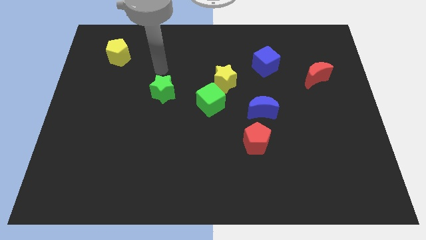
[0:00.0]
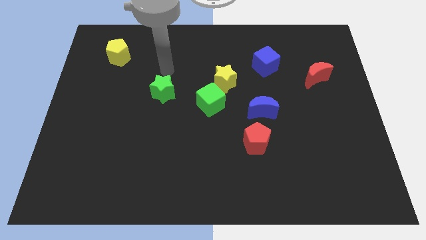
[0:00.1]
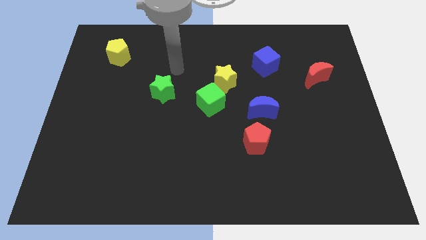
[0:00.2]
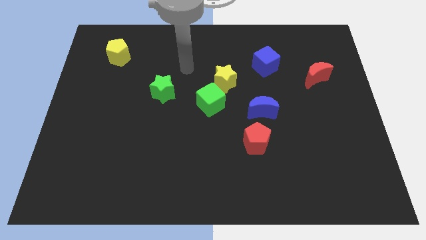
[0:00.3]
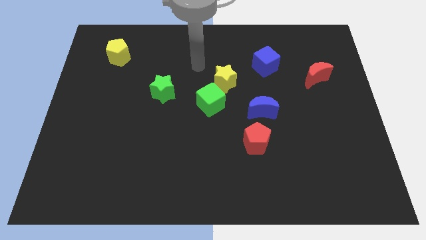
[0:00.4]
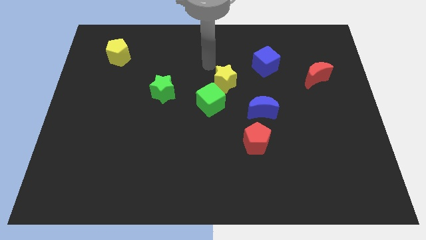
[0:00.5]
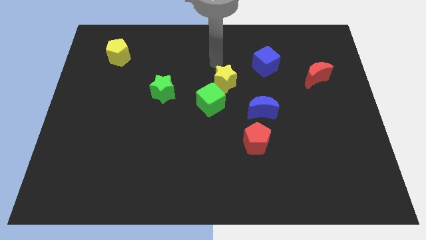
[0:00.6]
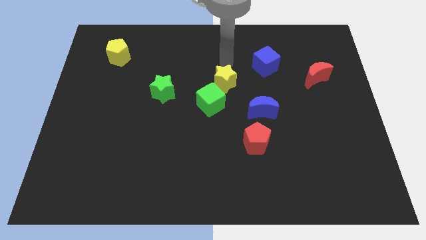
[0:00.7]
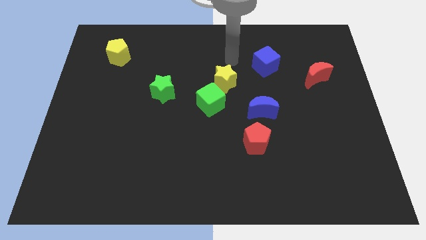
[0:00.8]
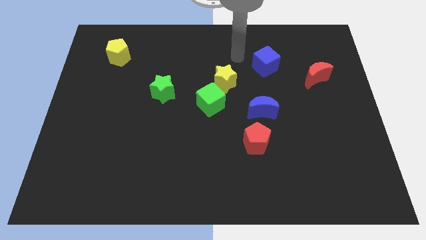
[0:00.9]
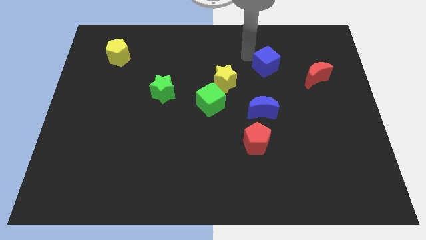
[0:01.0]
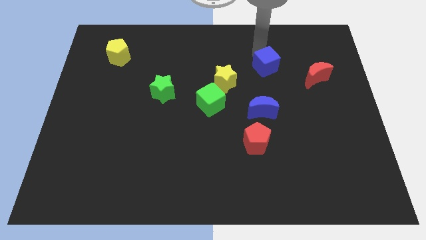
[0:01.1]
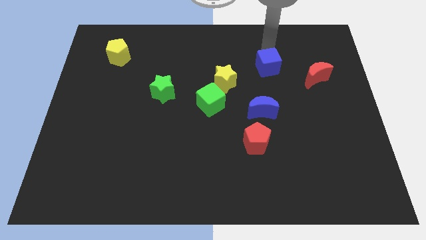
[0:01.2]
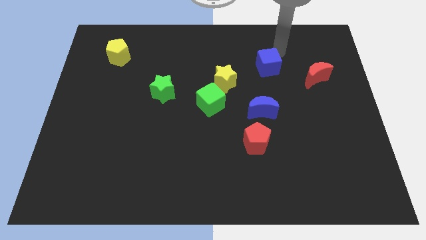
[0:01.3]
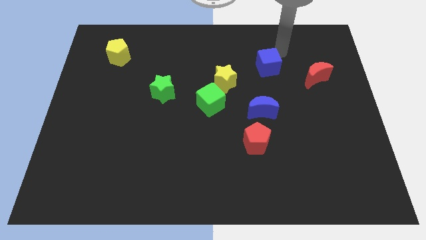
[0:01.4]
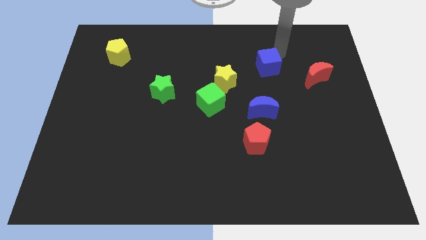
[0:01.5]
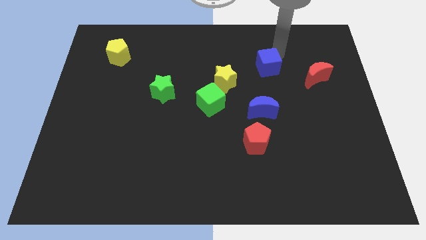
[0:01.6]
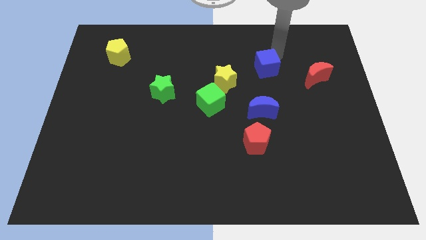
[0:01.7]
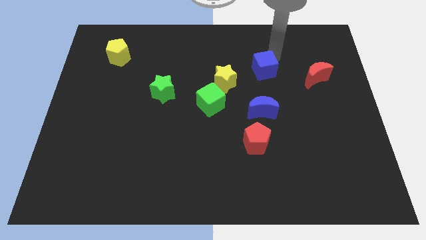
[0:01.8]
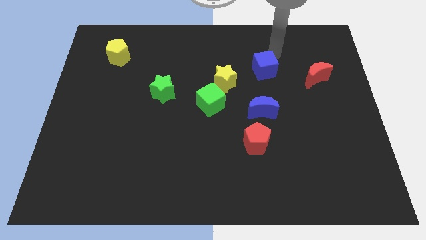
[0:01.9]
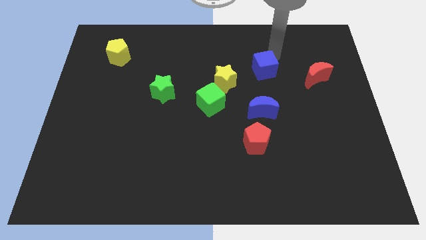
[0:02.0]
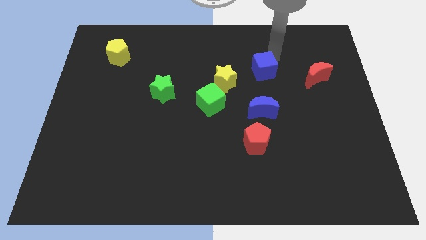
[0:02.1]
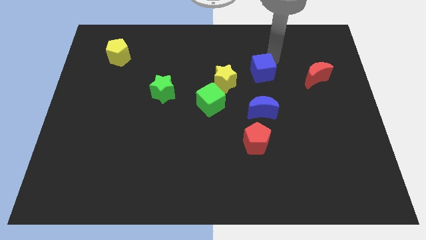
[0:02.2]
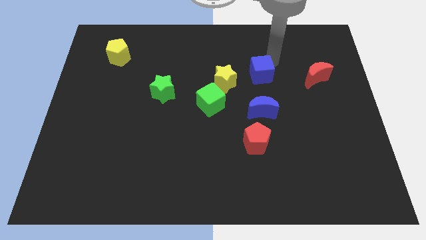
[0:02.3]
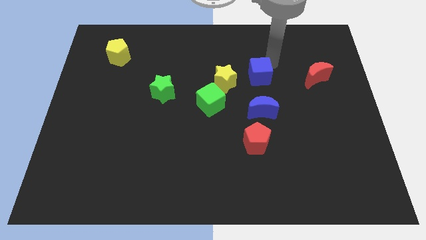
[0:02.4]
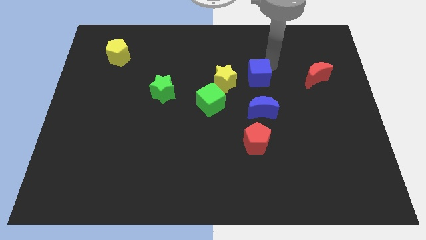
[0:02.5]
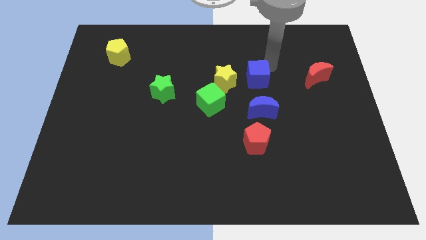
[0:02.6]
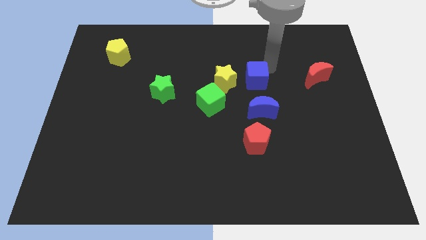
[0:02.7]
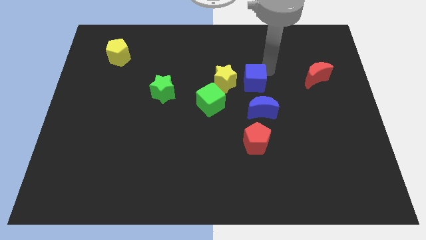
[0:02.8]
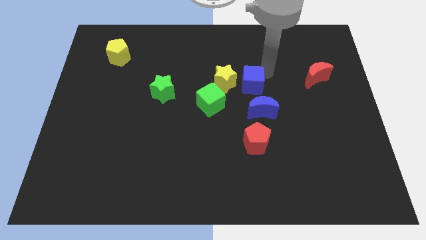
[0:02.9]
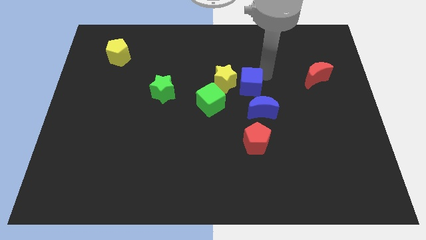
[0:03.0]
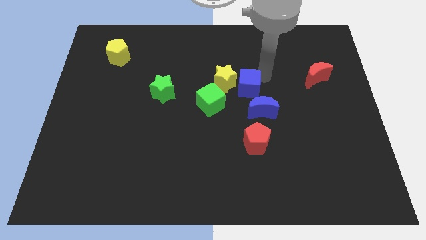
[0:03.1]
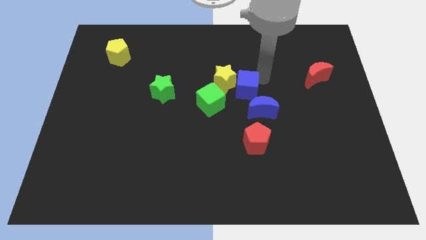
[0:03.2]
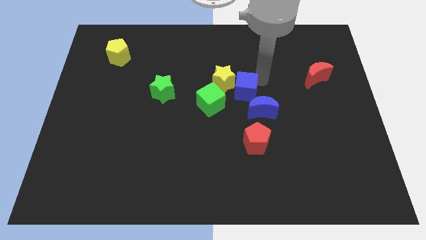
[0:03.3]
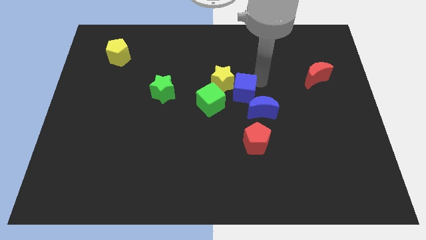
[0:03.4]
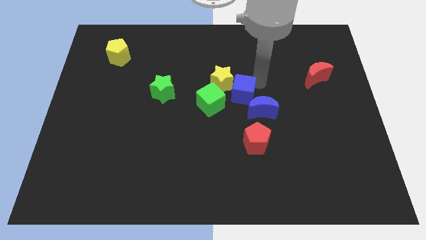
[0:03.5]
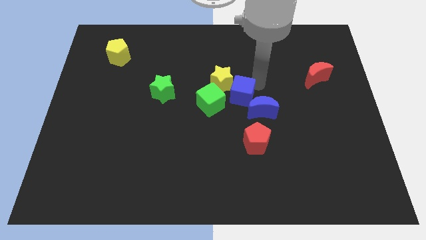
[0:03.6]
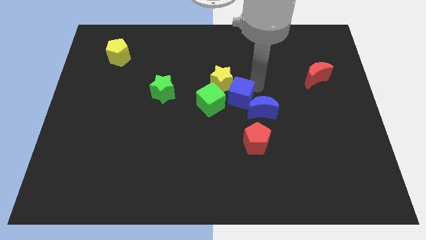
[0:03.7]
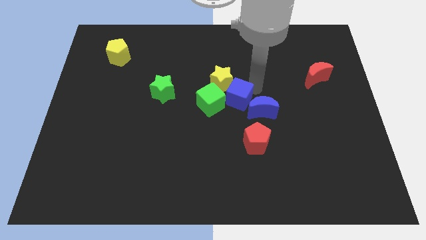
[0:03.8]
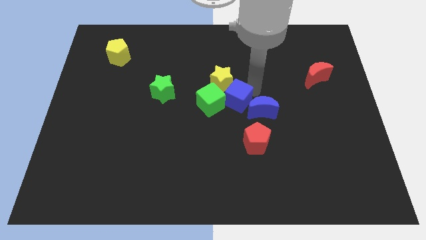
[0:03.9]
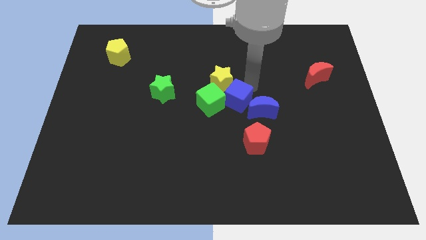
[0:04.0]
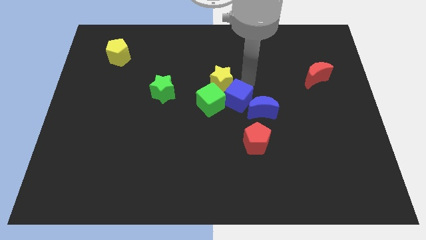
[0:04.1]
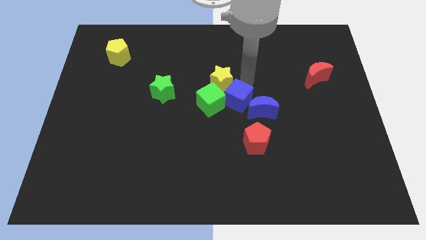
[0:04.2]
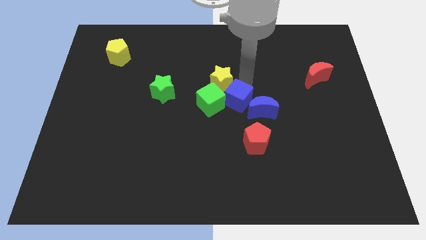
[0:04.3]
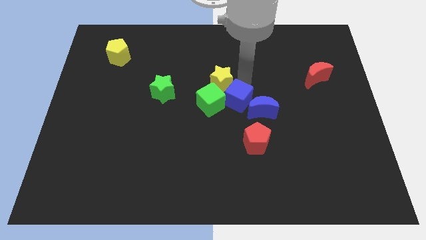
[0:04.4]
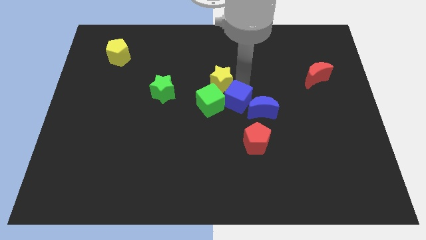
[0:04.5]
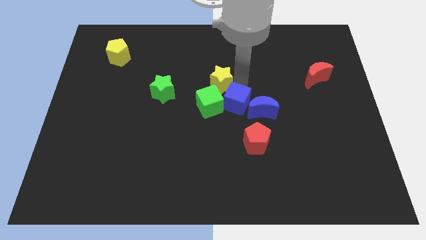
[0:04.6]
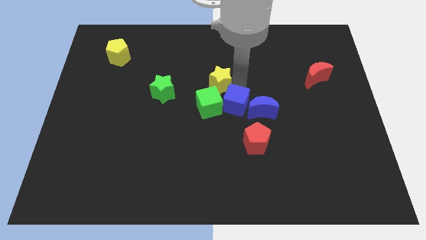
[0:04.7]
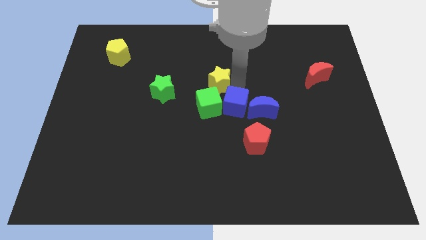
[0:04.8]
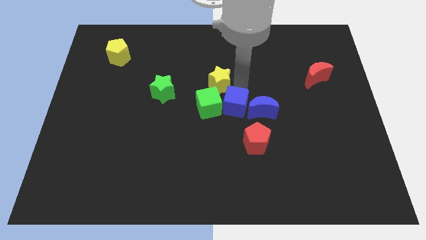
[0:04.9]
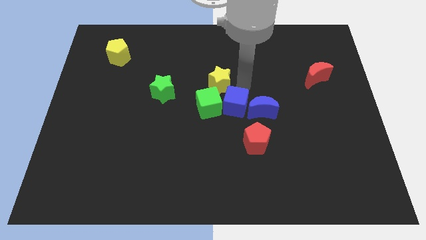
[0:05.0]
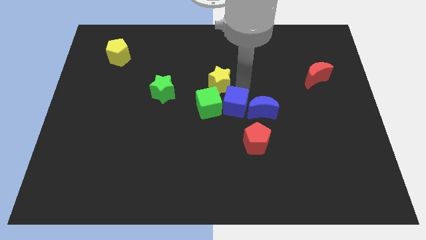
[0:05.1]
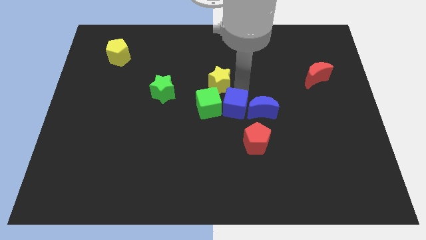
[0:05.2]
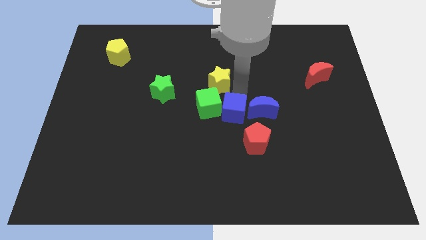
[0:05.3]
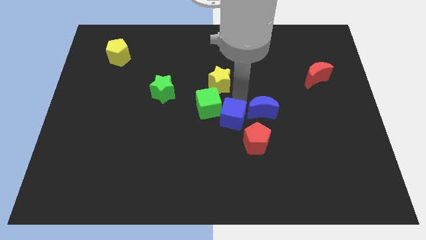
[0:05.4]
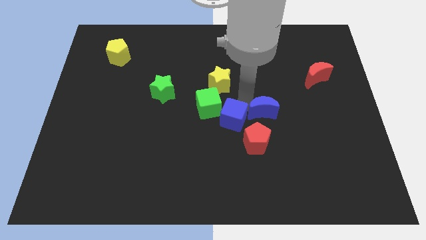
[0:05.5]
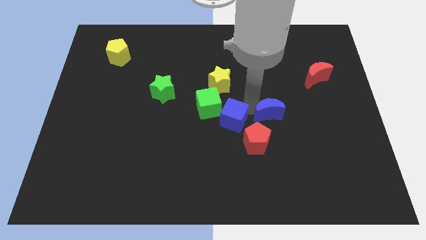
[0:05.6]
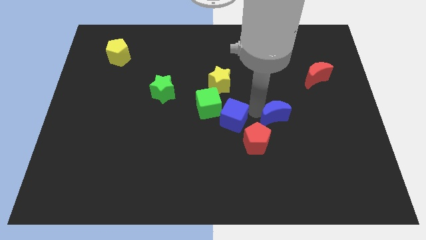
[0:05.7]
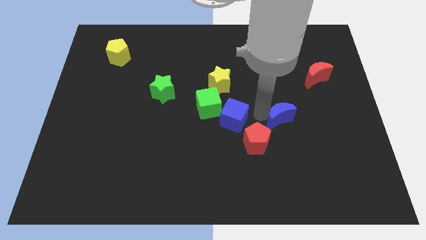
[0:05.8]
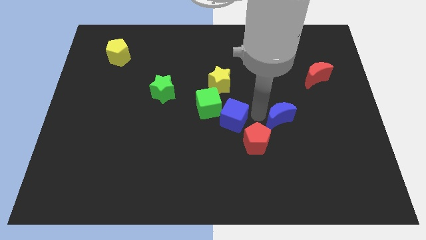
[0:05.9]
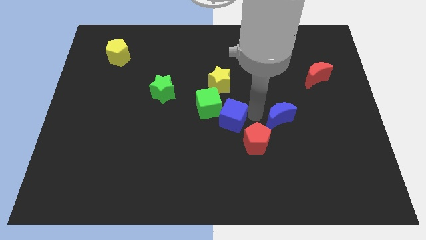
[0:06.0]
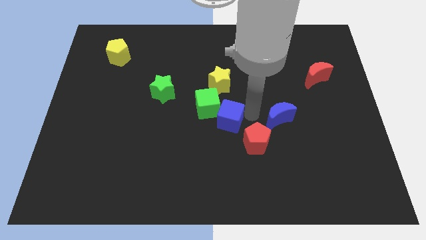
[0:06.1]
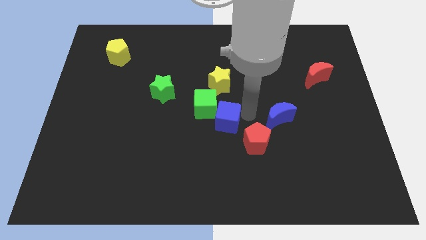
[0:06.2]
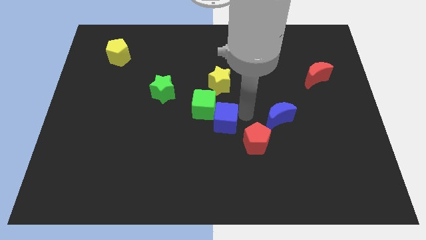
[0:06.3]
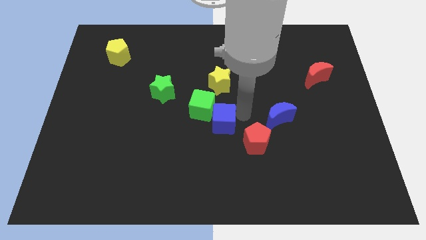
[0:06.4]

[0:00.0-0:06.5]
slide the blue cube downwards and then left

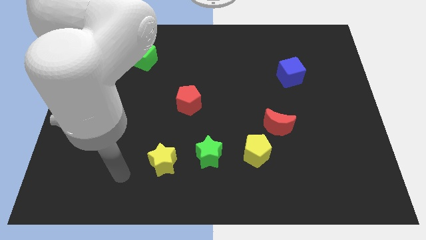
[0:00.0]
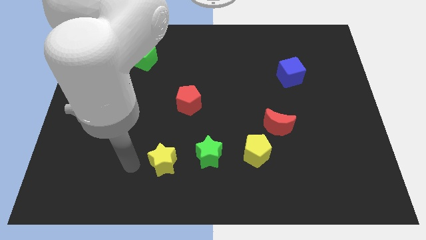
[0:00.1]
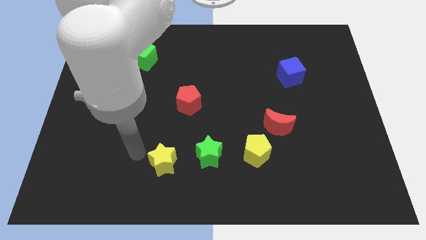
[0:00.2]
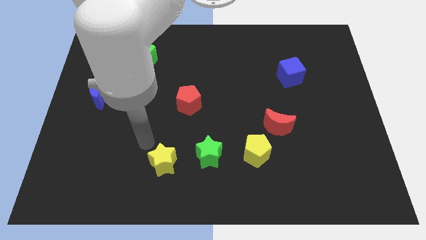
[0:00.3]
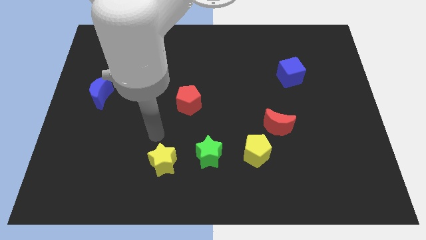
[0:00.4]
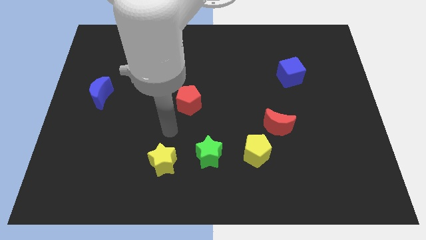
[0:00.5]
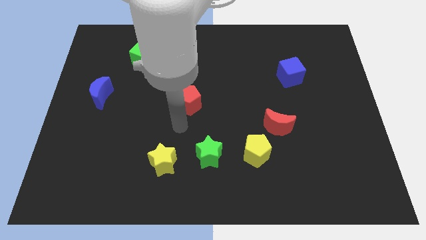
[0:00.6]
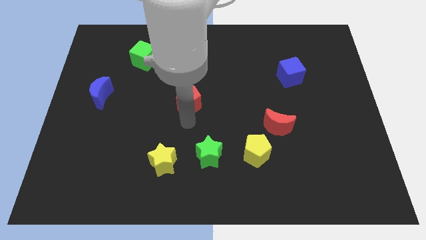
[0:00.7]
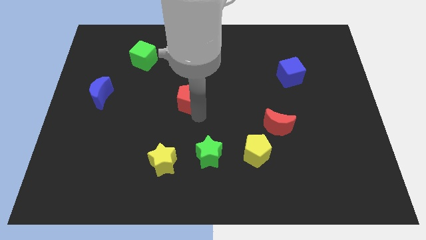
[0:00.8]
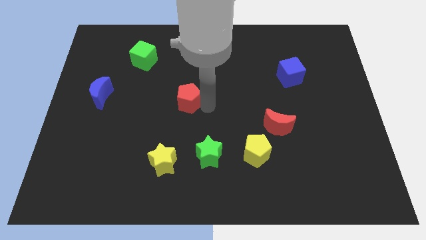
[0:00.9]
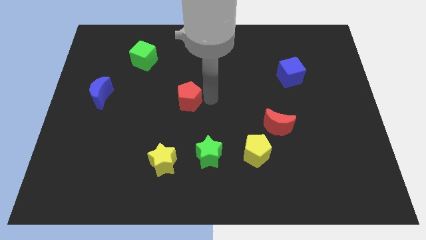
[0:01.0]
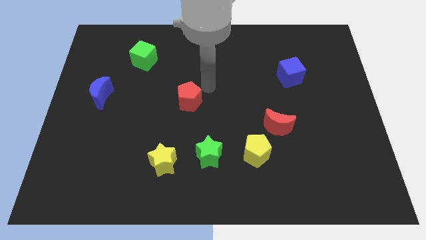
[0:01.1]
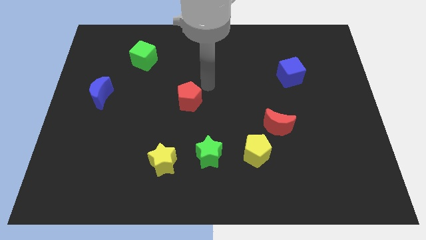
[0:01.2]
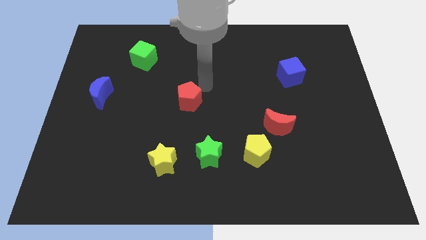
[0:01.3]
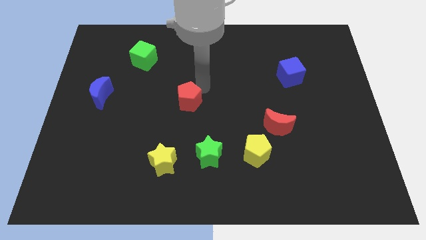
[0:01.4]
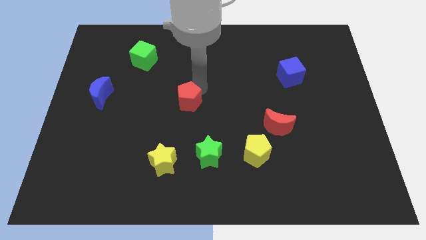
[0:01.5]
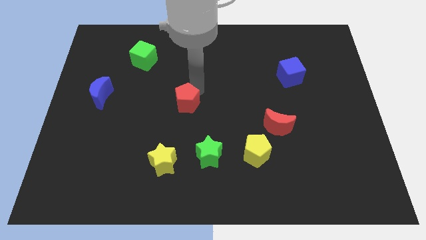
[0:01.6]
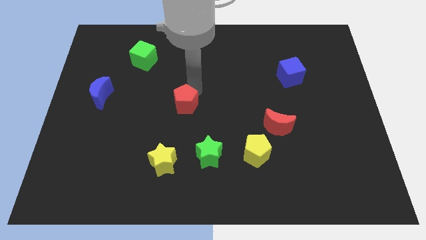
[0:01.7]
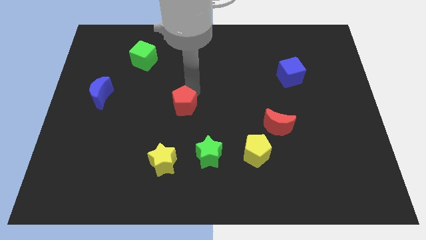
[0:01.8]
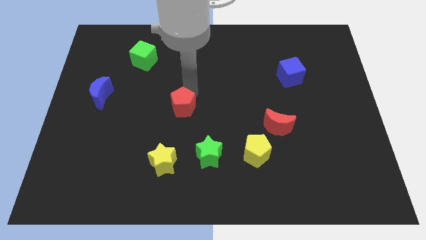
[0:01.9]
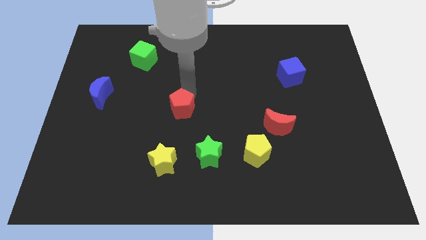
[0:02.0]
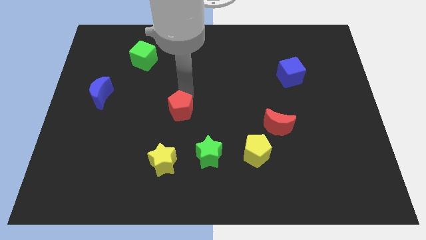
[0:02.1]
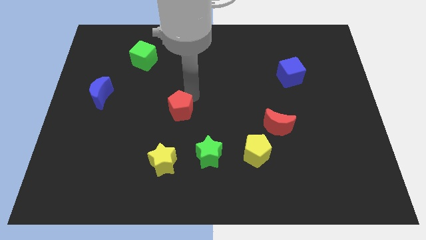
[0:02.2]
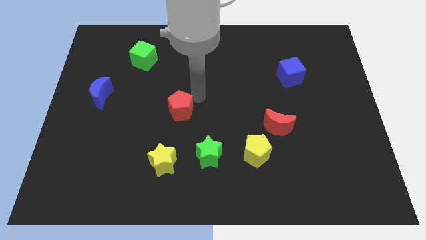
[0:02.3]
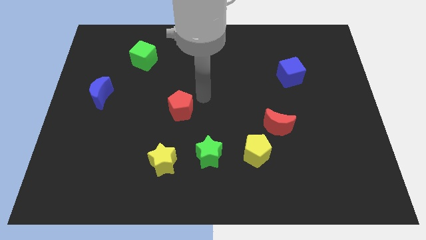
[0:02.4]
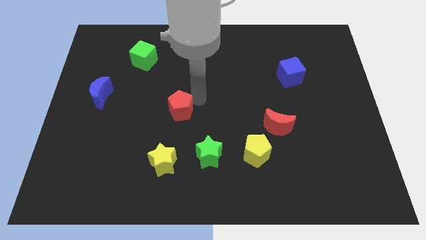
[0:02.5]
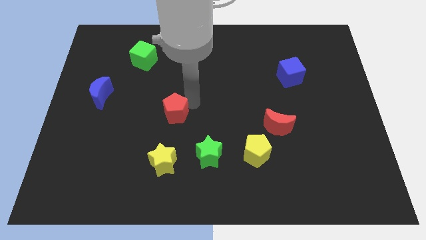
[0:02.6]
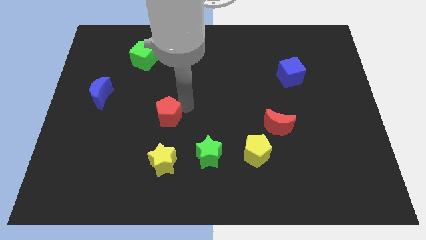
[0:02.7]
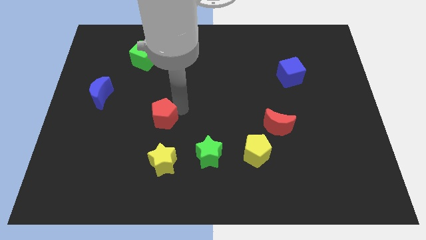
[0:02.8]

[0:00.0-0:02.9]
slide the red pentagon down and then to the left slightly
